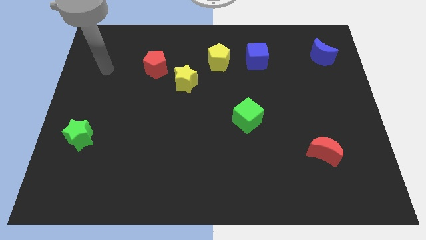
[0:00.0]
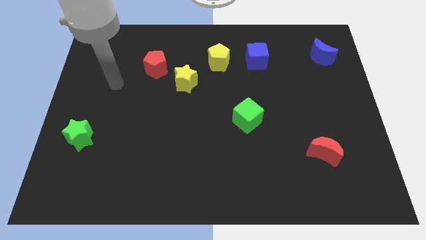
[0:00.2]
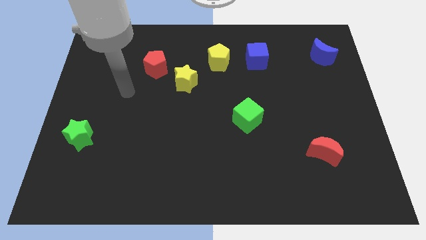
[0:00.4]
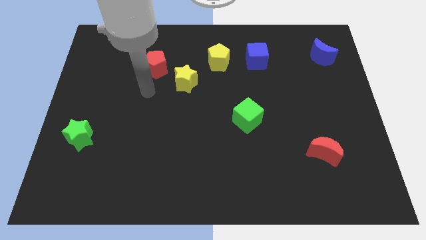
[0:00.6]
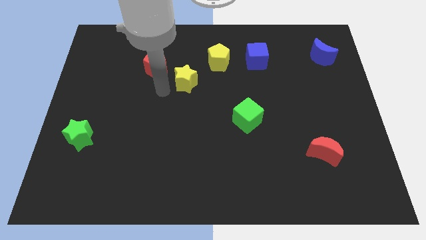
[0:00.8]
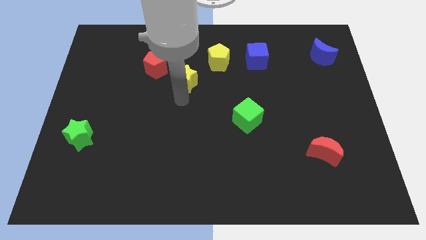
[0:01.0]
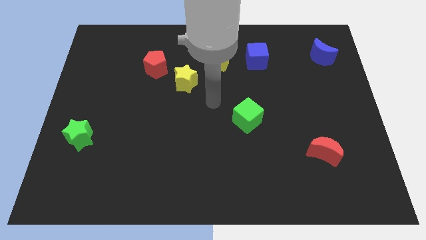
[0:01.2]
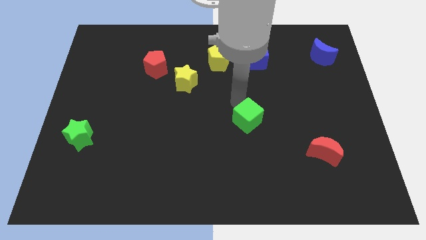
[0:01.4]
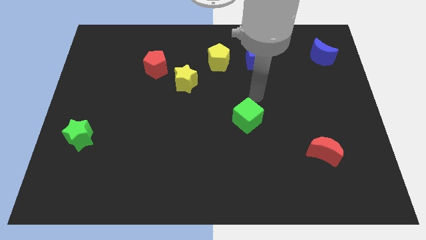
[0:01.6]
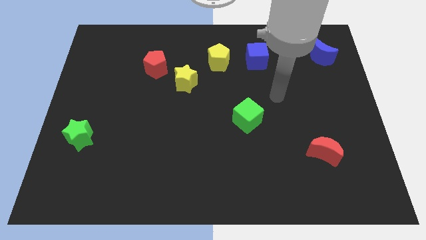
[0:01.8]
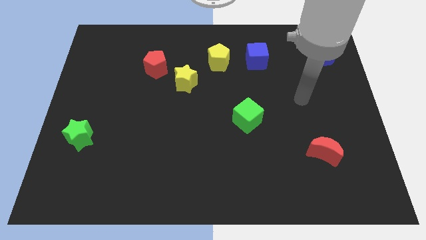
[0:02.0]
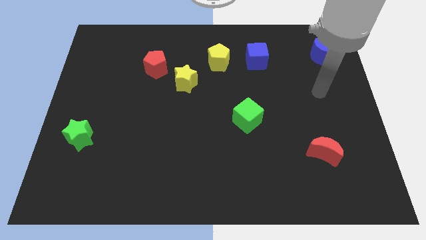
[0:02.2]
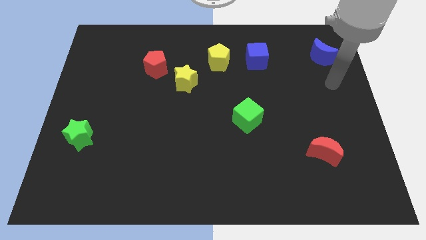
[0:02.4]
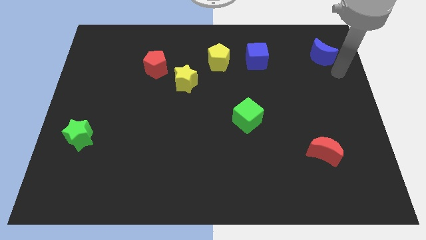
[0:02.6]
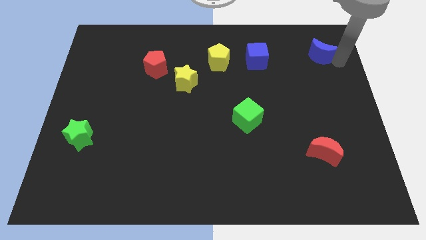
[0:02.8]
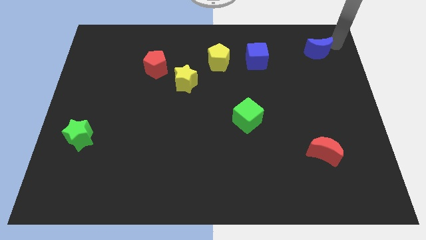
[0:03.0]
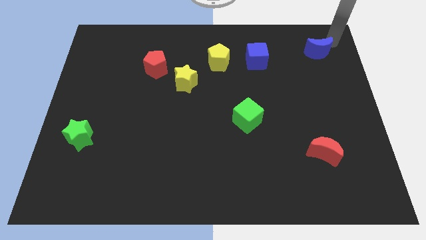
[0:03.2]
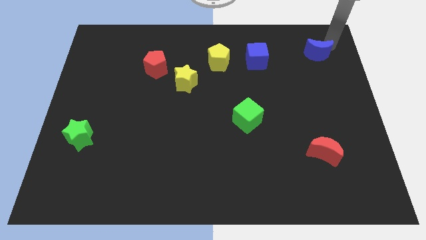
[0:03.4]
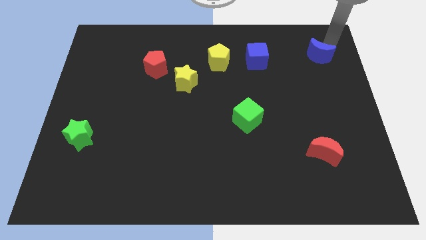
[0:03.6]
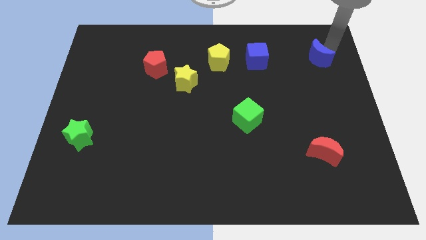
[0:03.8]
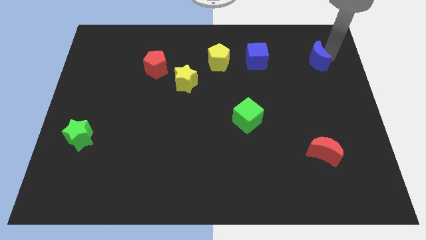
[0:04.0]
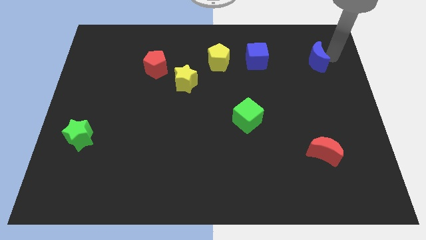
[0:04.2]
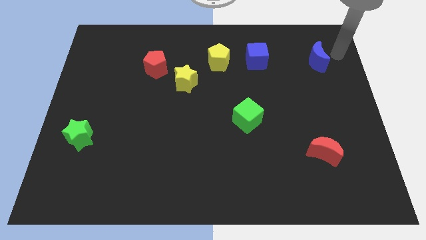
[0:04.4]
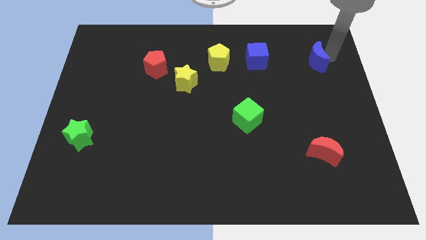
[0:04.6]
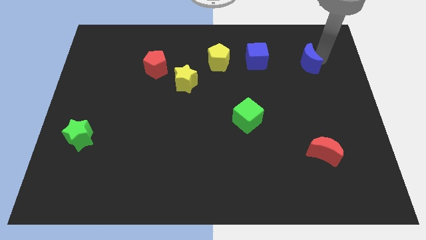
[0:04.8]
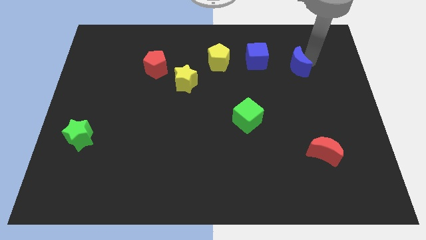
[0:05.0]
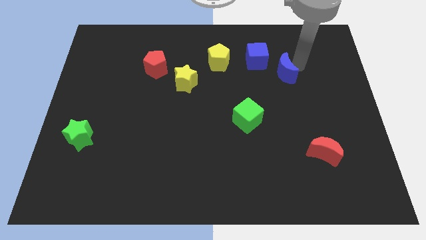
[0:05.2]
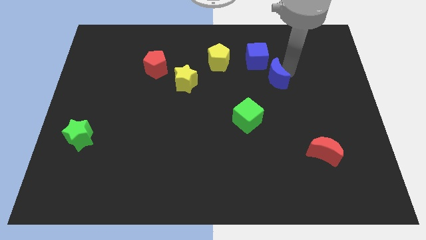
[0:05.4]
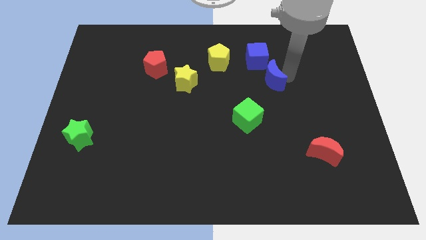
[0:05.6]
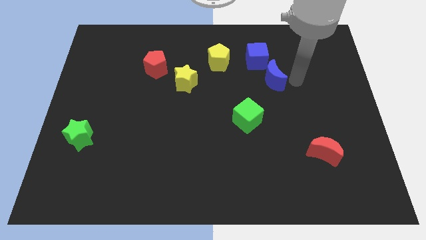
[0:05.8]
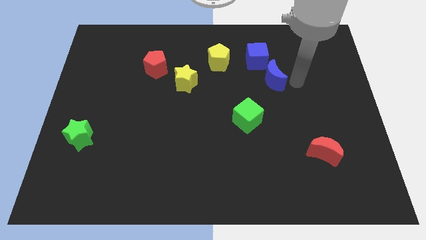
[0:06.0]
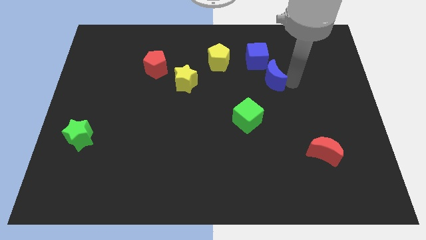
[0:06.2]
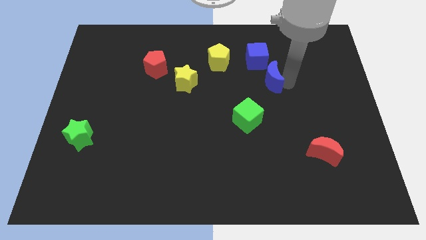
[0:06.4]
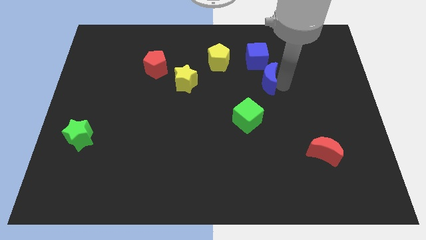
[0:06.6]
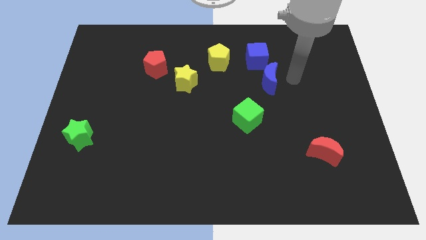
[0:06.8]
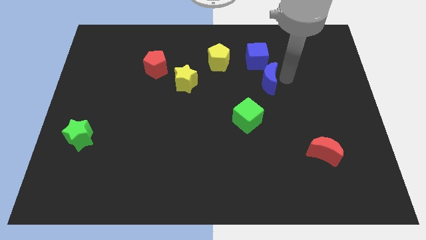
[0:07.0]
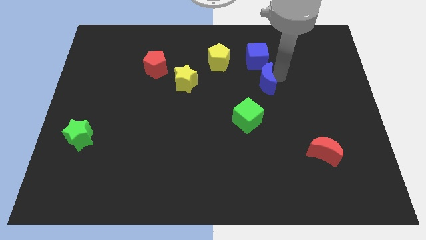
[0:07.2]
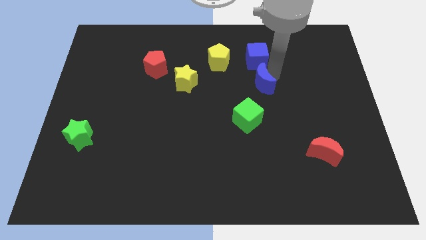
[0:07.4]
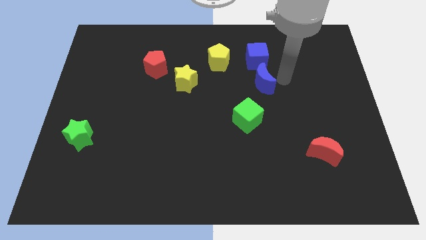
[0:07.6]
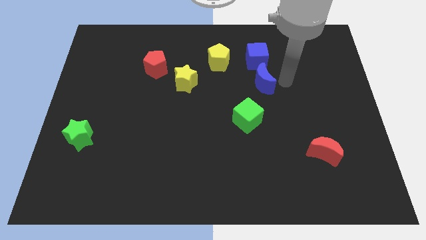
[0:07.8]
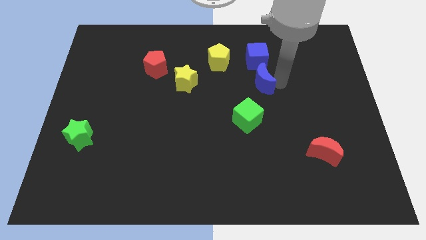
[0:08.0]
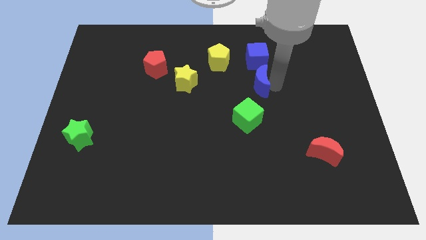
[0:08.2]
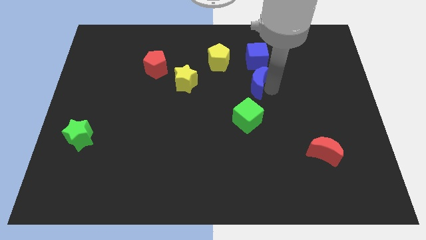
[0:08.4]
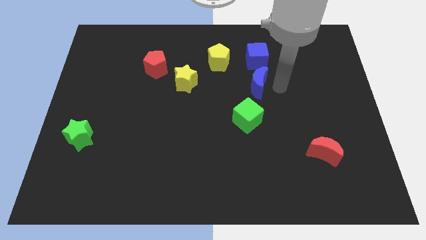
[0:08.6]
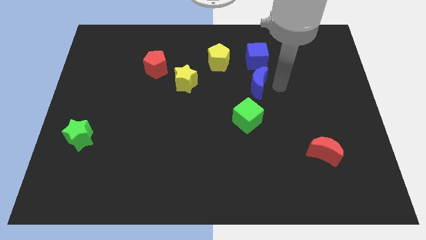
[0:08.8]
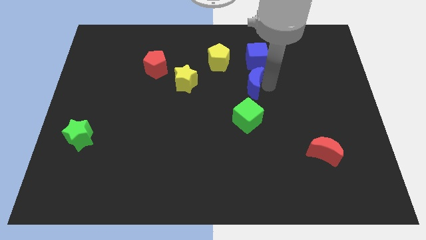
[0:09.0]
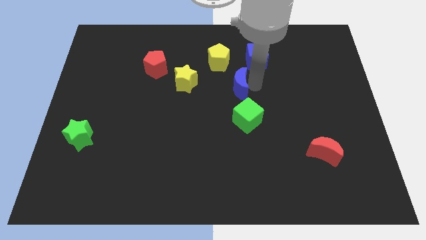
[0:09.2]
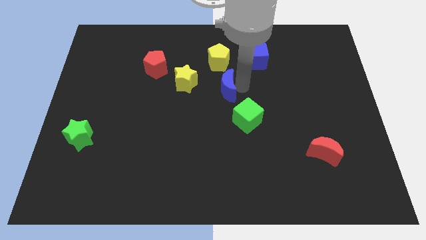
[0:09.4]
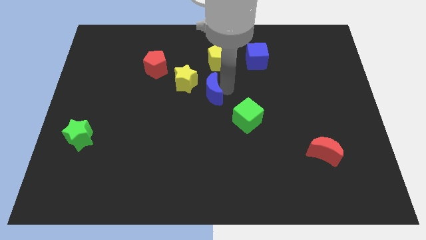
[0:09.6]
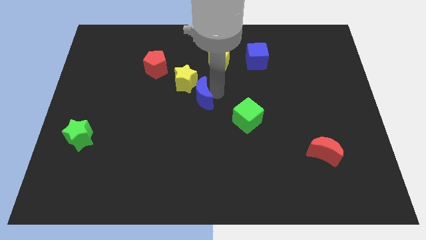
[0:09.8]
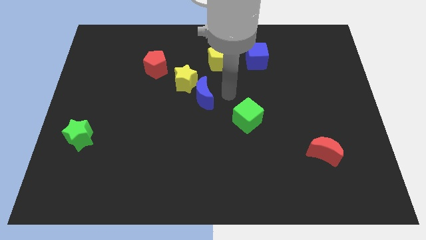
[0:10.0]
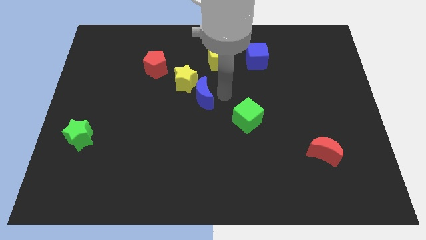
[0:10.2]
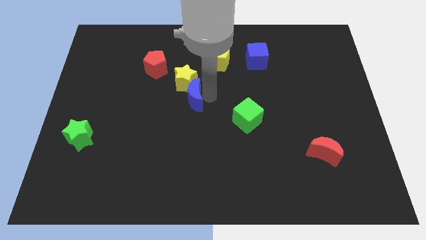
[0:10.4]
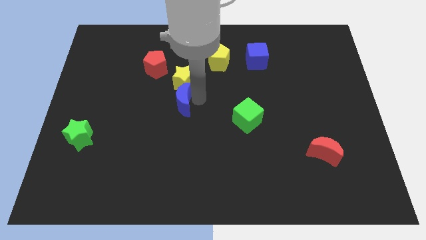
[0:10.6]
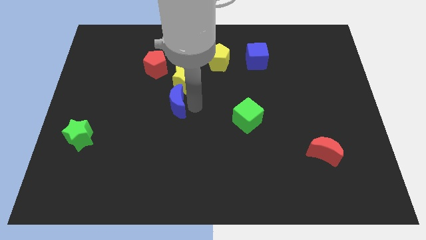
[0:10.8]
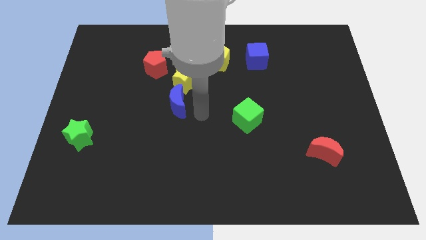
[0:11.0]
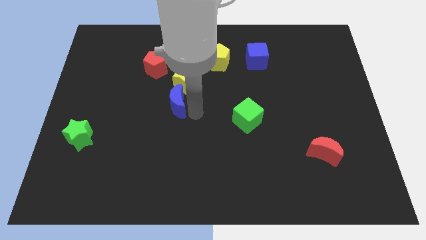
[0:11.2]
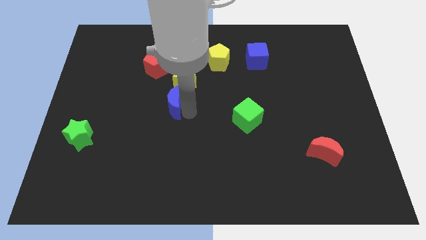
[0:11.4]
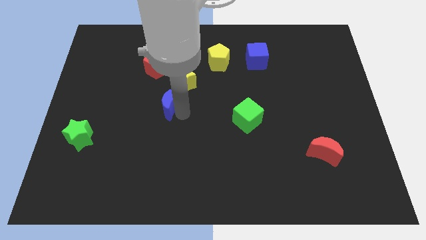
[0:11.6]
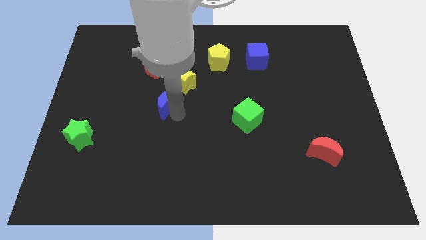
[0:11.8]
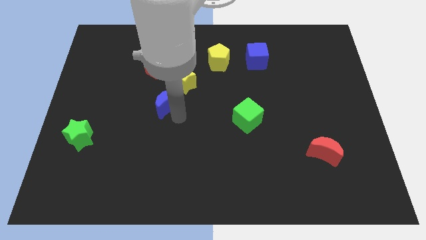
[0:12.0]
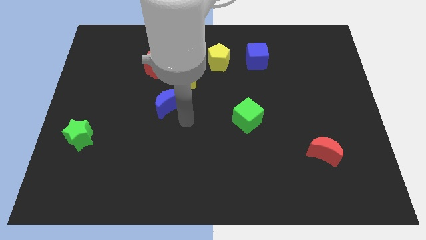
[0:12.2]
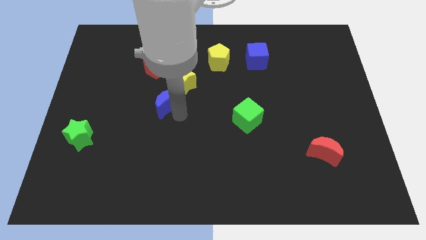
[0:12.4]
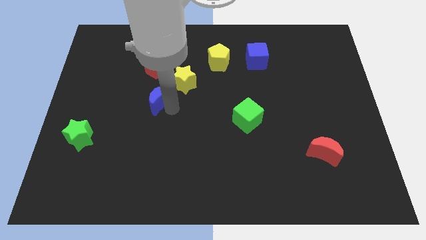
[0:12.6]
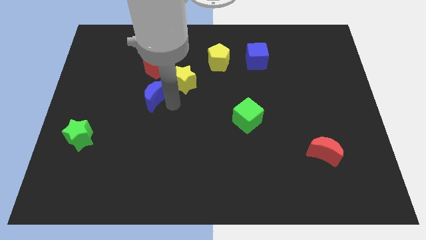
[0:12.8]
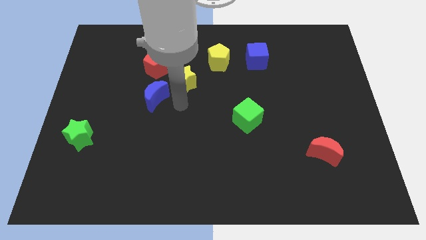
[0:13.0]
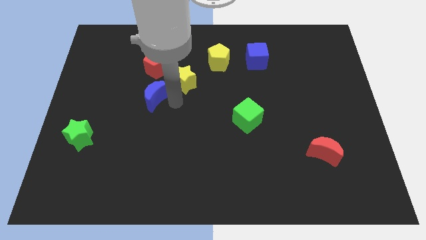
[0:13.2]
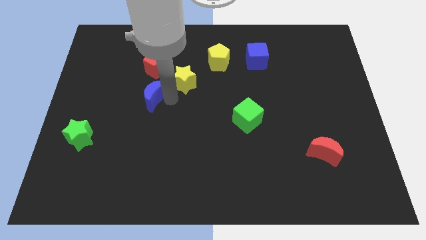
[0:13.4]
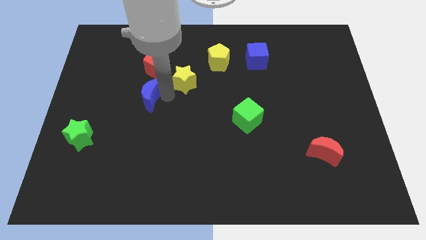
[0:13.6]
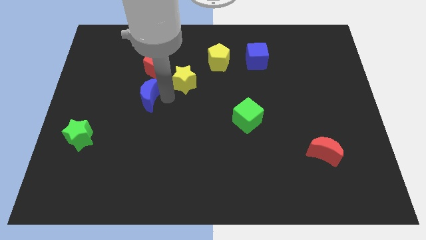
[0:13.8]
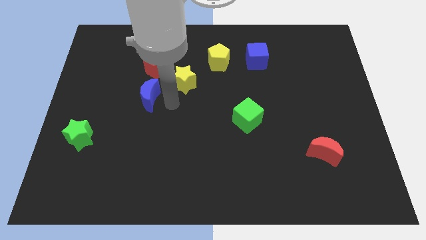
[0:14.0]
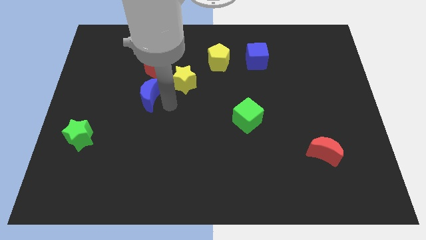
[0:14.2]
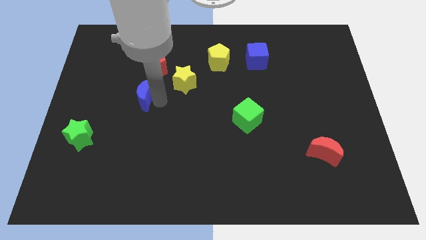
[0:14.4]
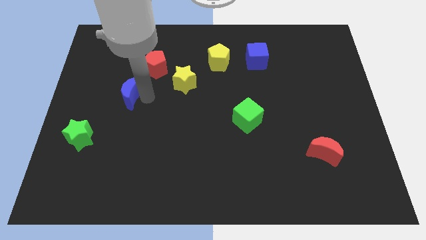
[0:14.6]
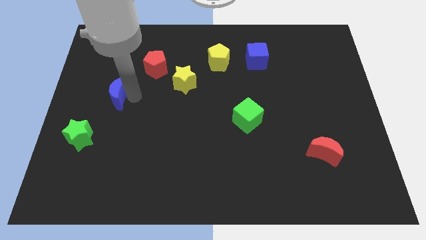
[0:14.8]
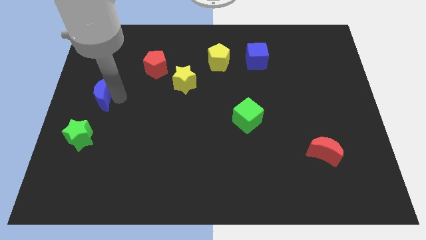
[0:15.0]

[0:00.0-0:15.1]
put the blue moon to the left side
